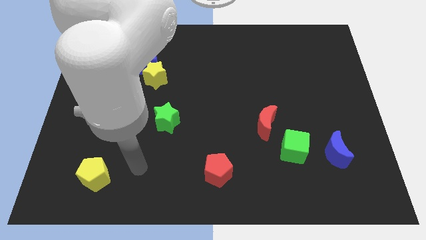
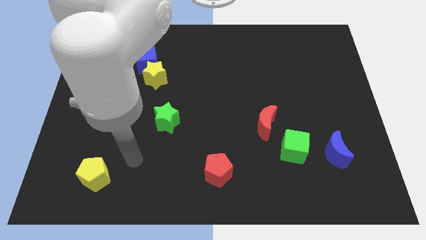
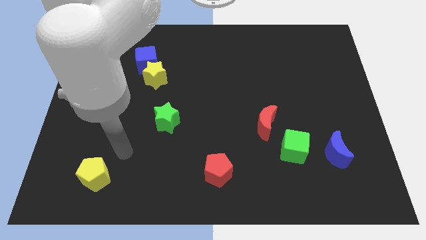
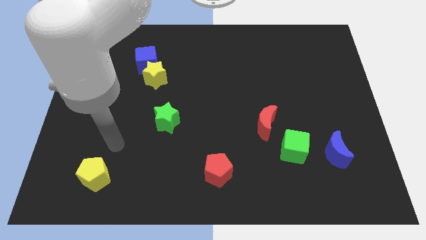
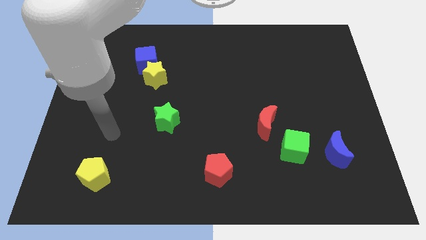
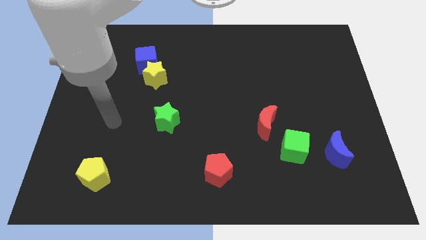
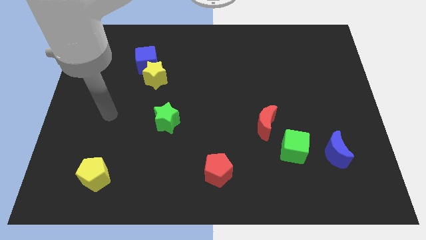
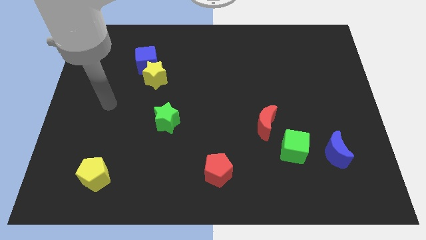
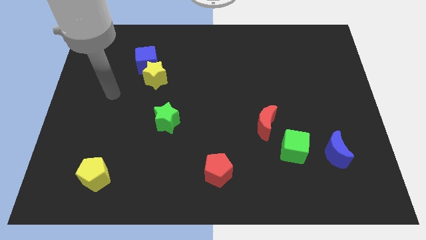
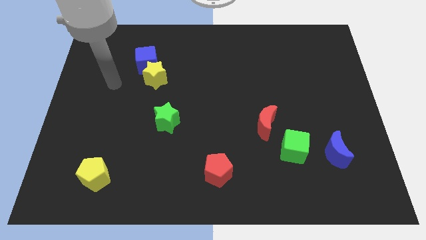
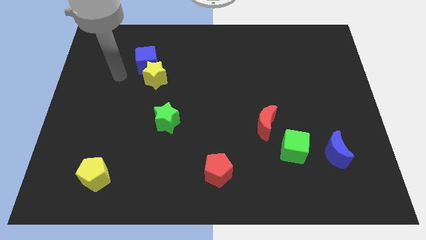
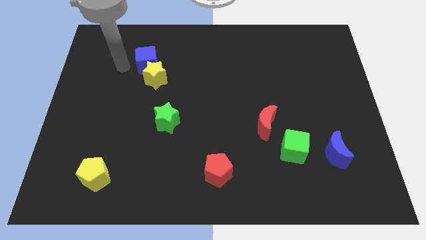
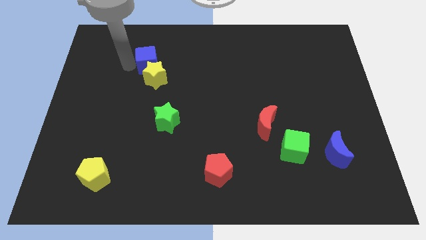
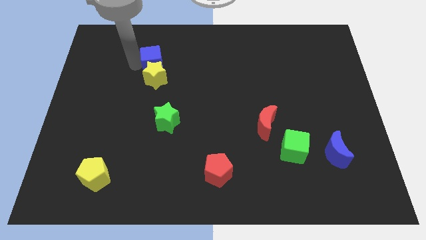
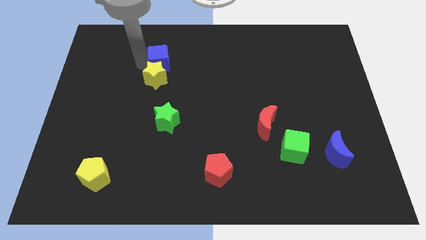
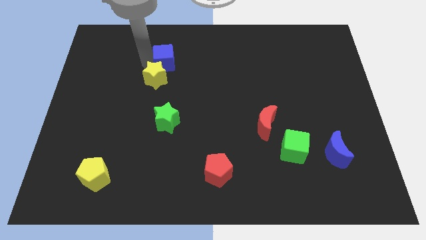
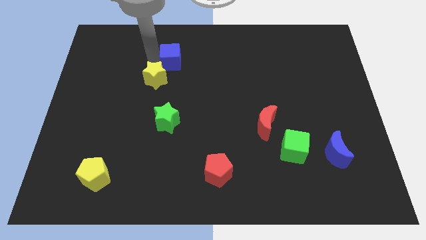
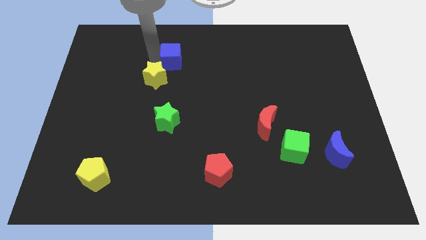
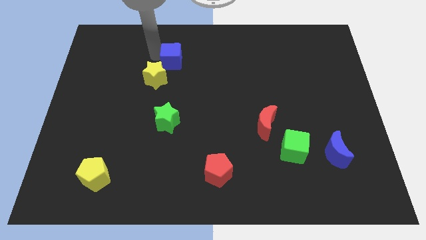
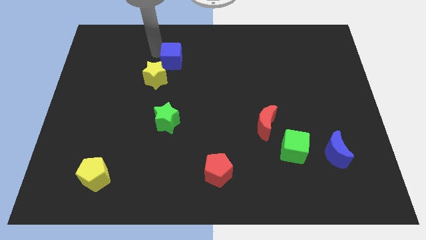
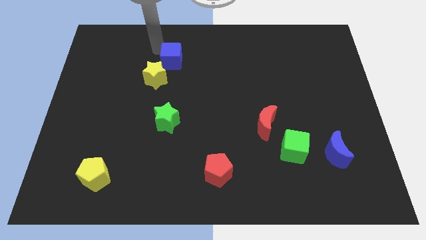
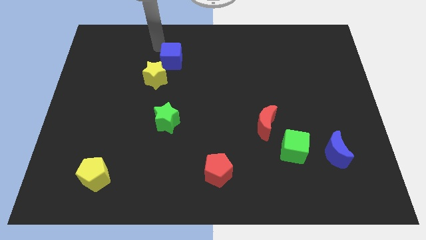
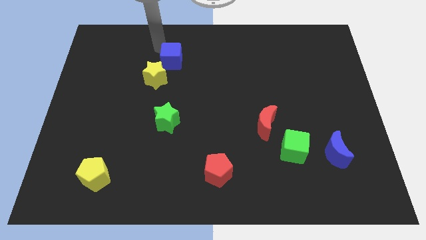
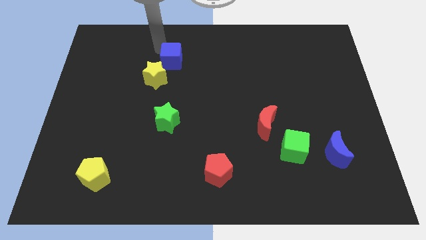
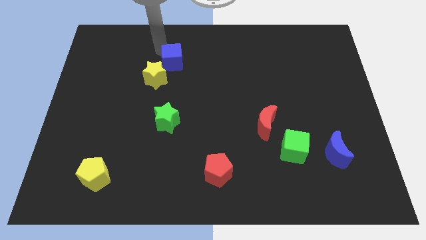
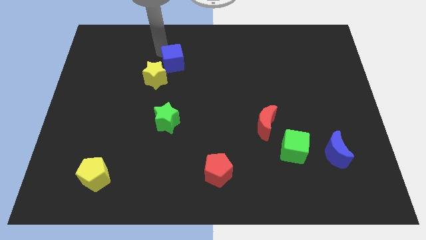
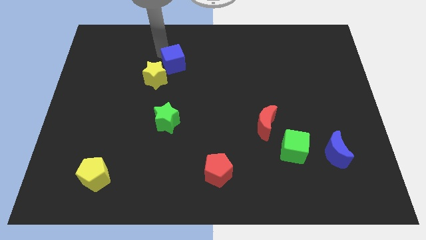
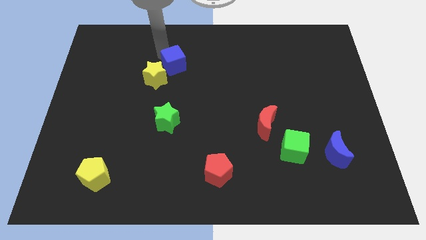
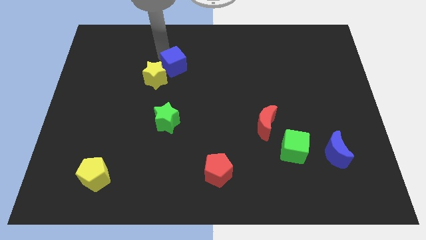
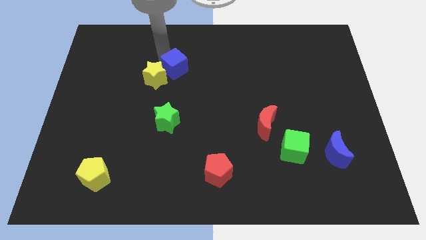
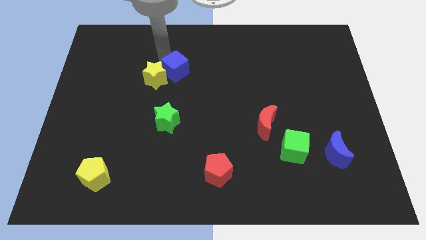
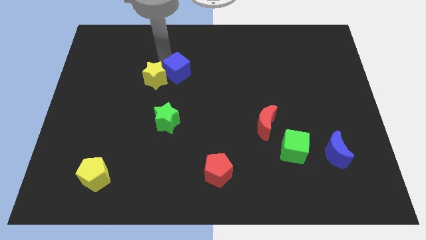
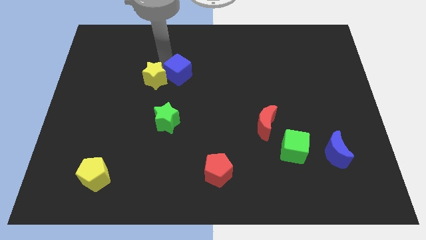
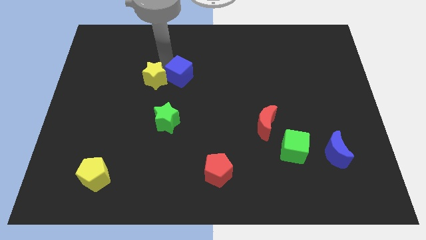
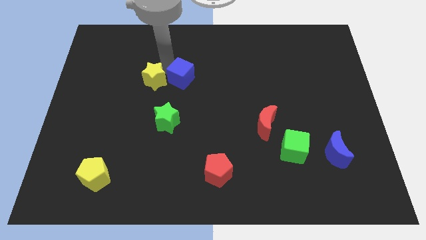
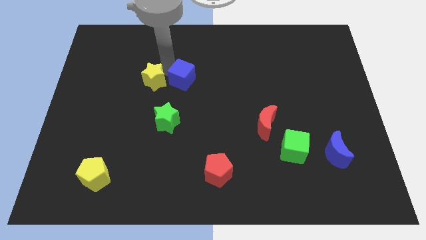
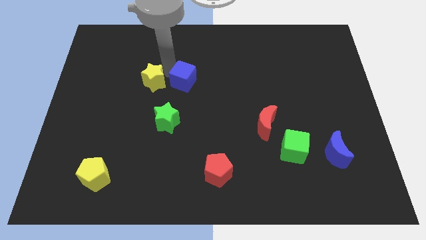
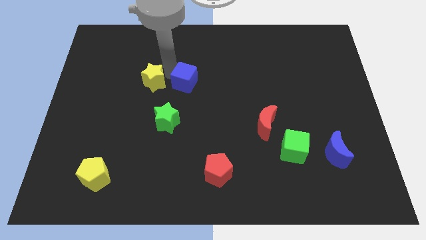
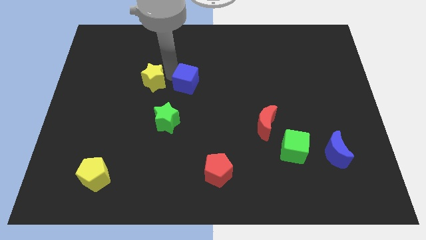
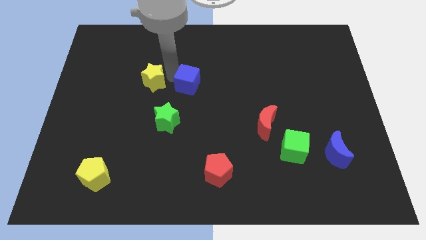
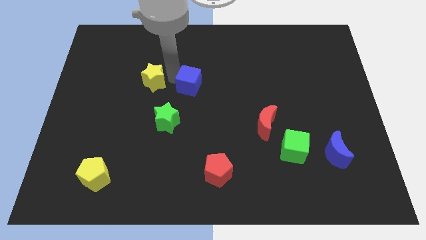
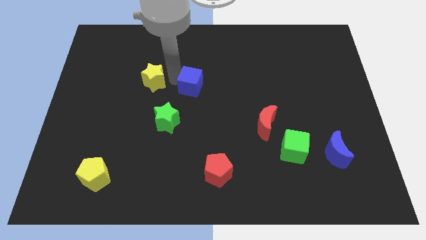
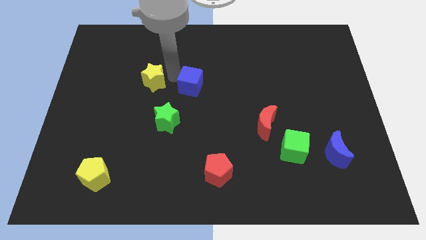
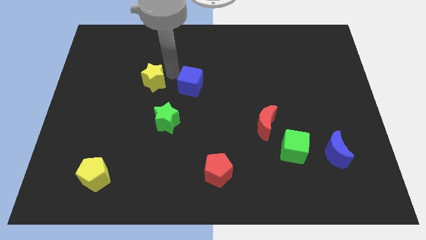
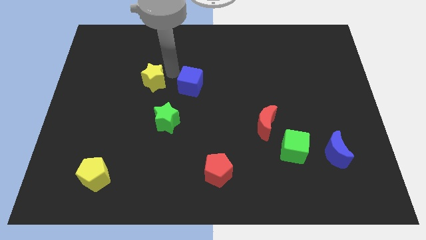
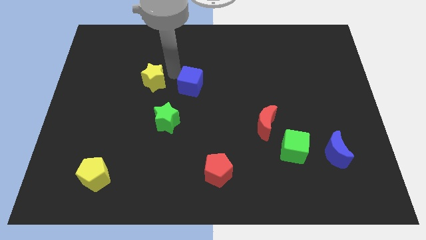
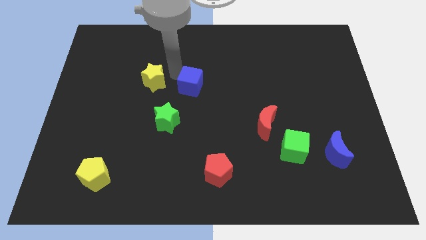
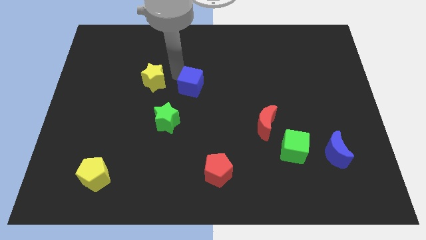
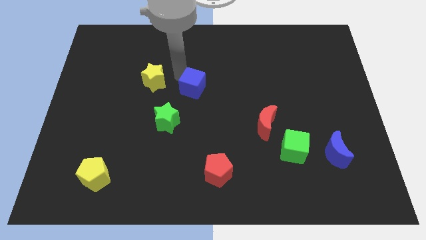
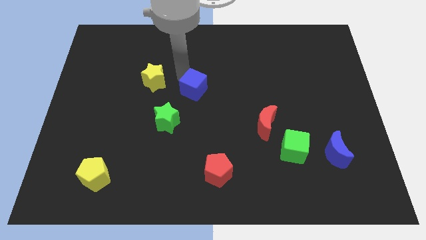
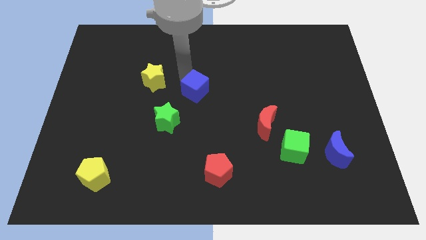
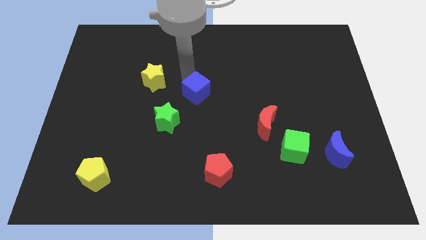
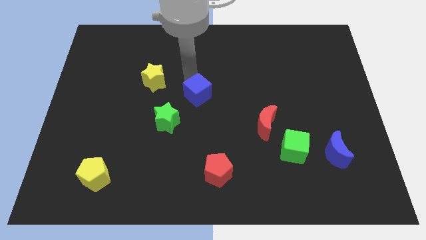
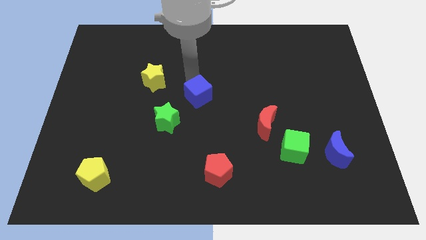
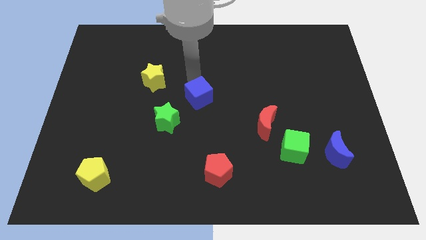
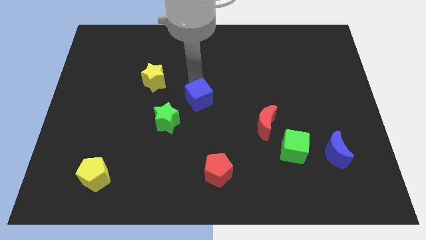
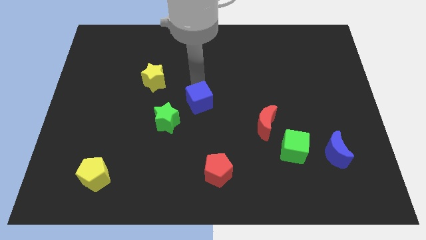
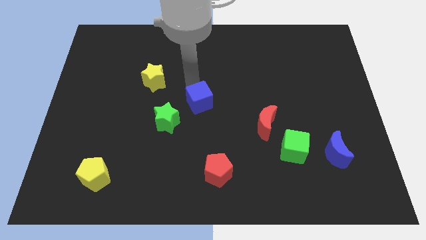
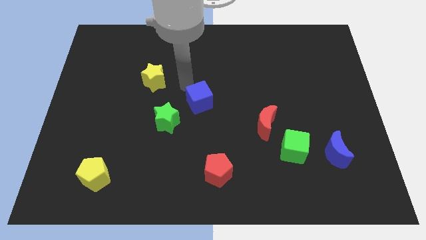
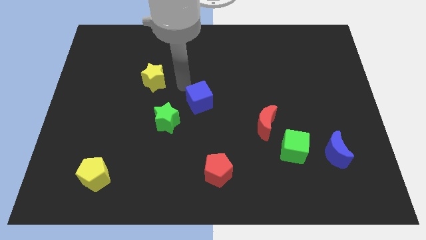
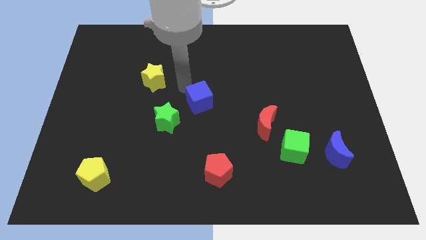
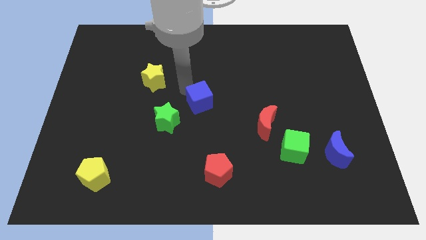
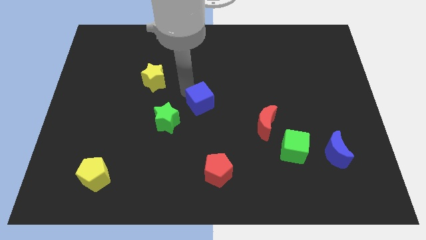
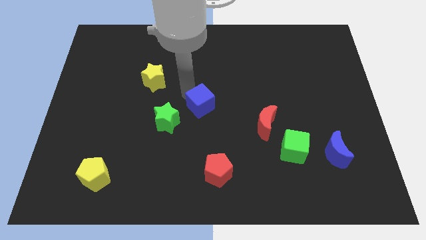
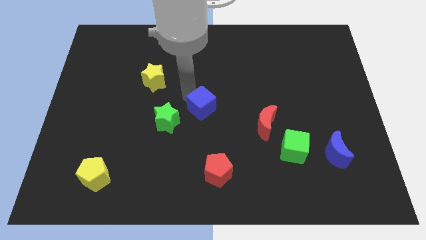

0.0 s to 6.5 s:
push the blue cube diagonally downwards and right

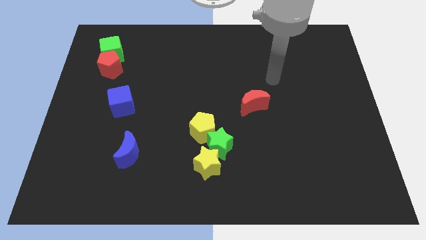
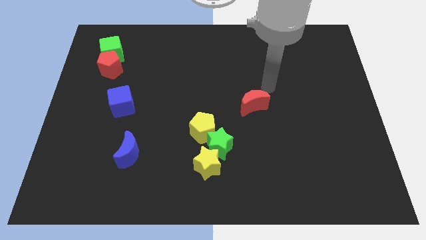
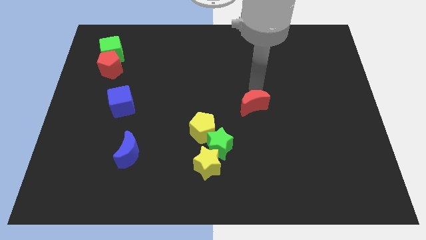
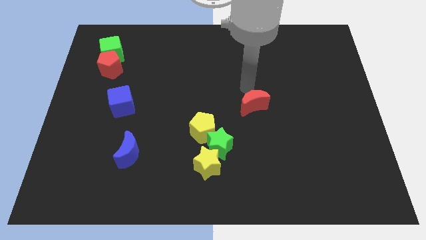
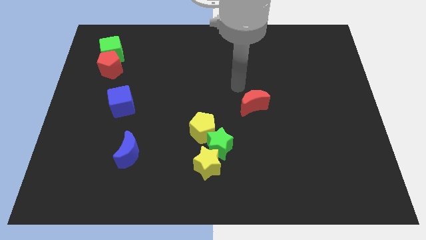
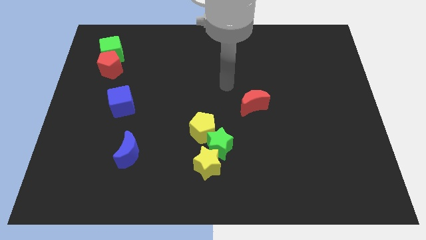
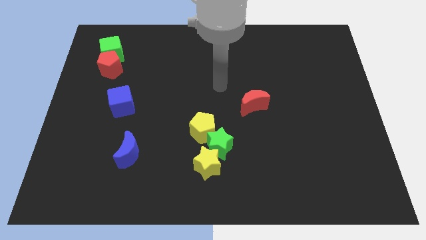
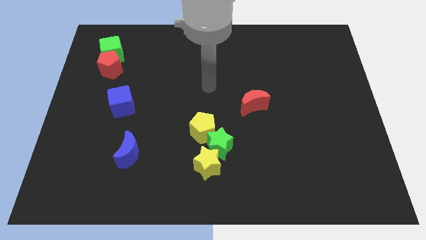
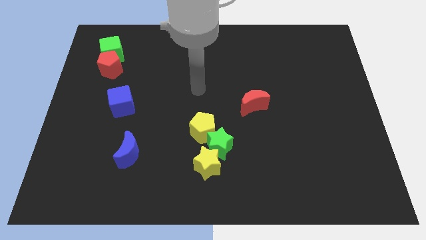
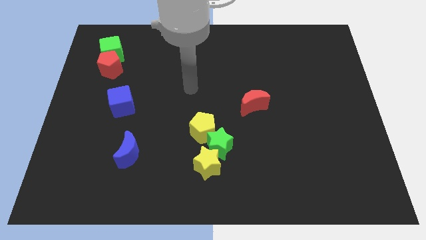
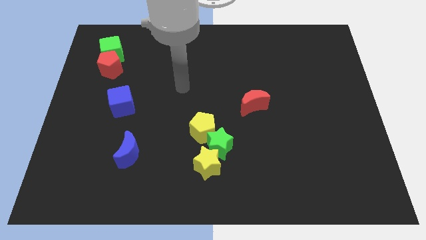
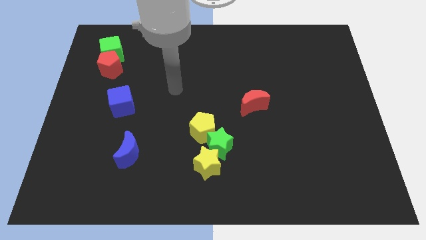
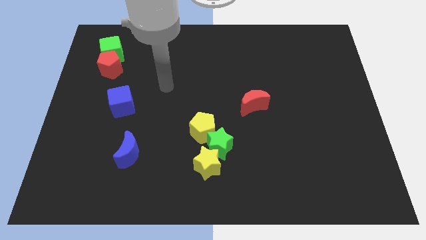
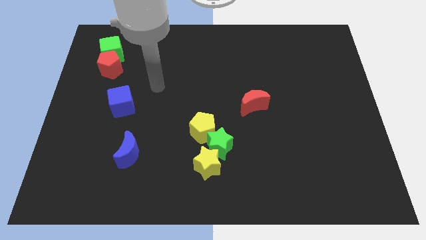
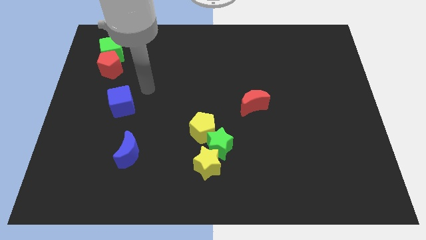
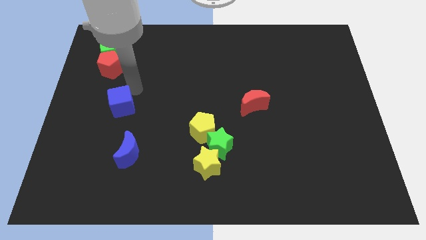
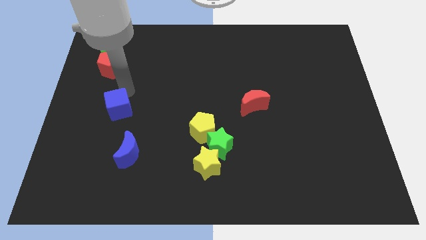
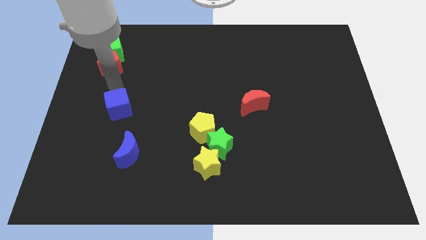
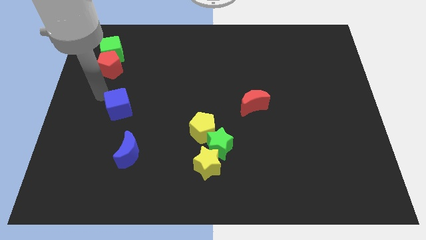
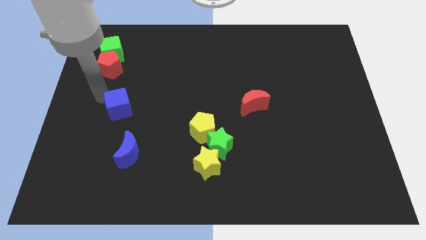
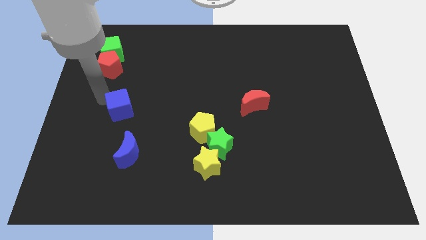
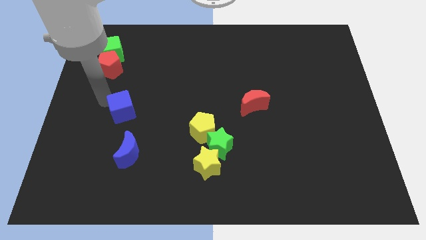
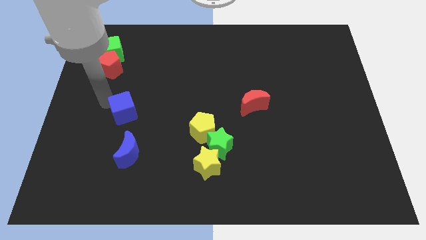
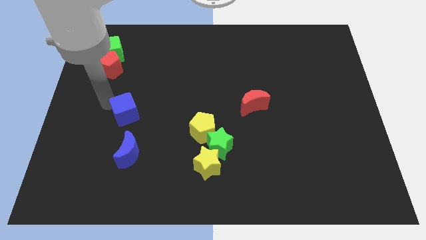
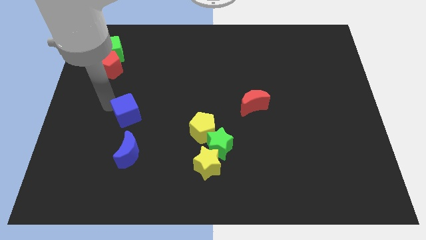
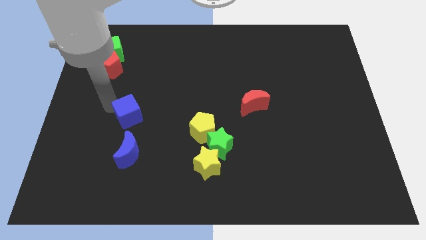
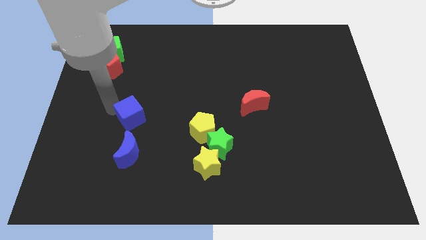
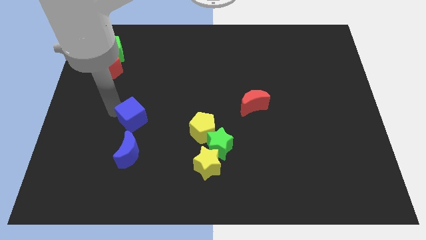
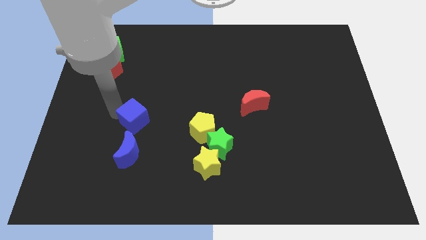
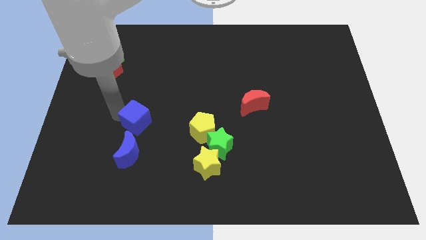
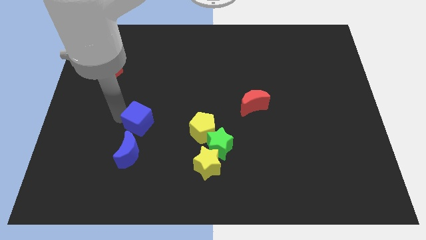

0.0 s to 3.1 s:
move the blue cube down and right diagonally somewhat
